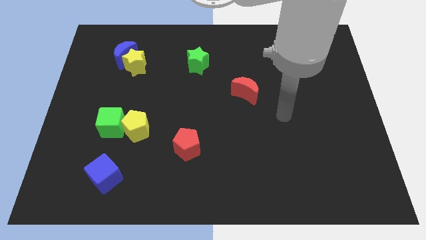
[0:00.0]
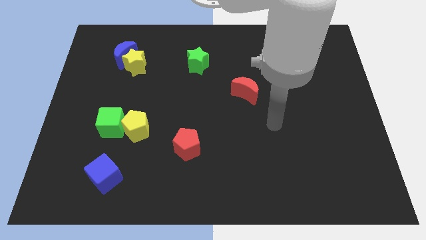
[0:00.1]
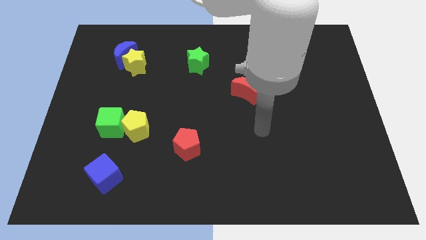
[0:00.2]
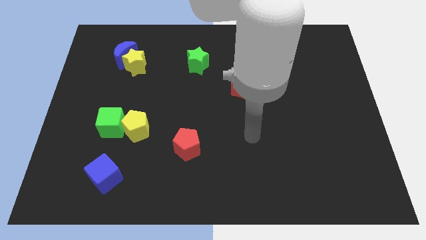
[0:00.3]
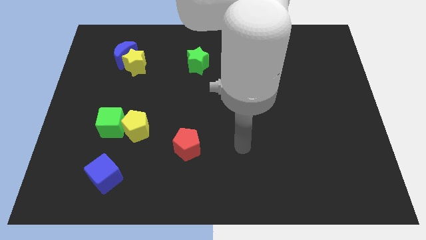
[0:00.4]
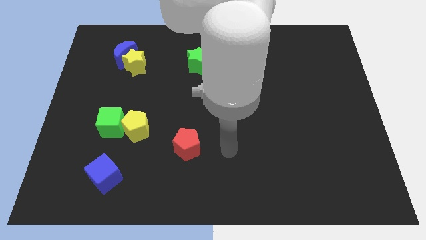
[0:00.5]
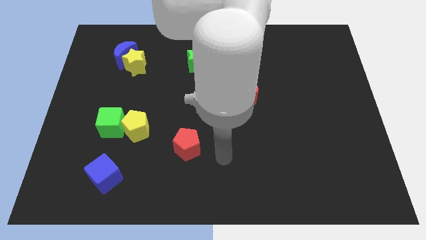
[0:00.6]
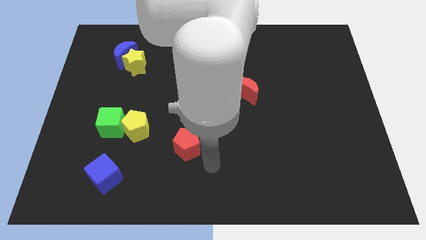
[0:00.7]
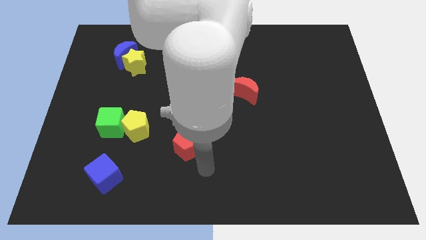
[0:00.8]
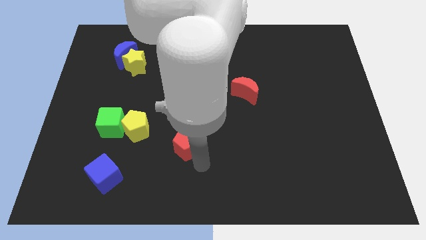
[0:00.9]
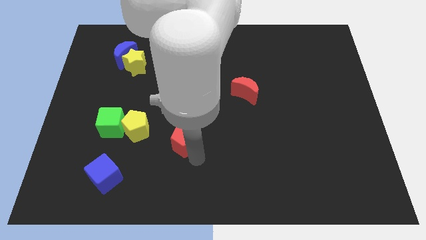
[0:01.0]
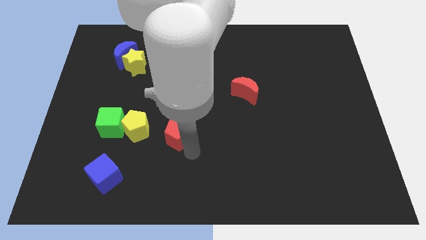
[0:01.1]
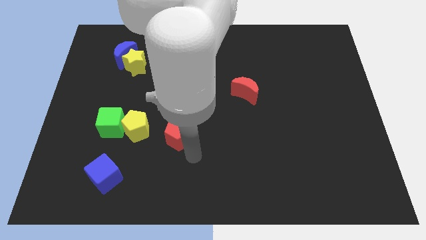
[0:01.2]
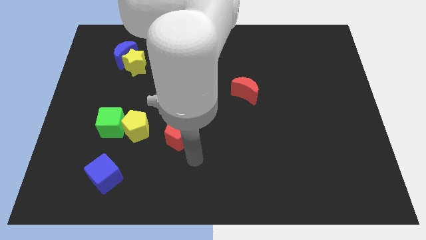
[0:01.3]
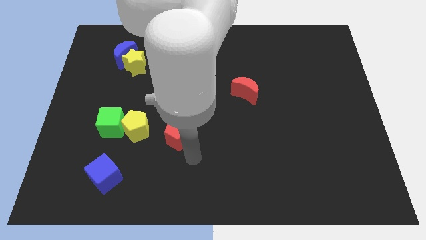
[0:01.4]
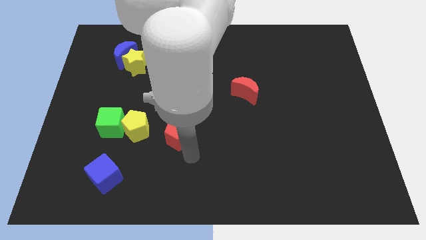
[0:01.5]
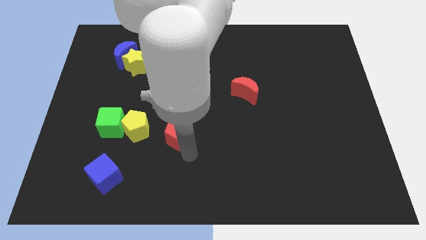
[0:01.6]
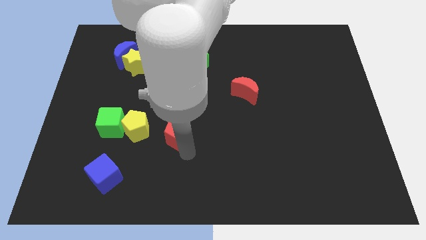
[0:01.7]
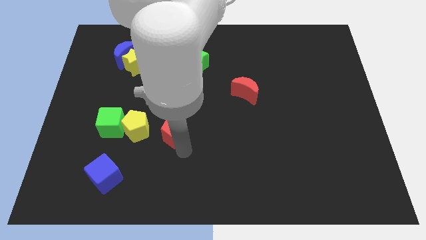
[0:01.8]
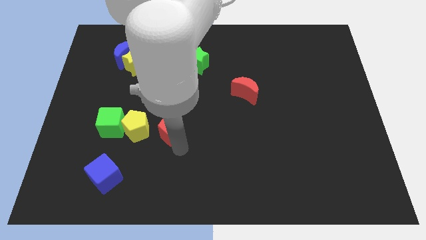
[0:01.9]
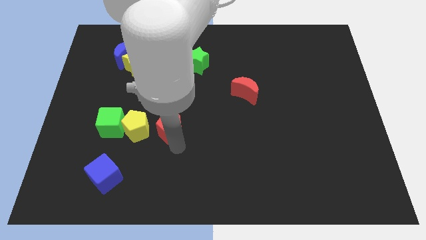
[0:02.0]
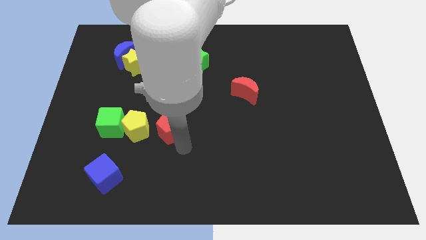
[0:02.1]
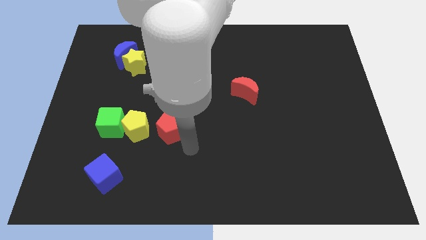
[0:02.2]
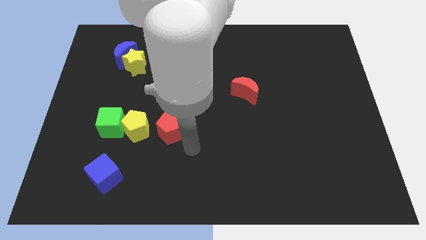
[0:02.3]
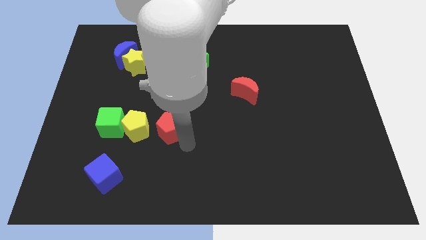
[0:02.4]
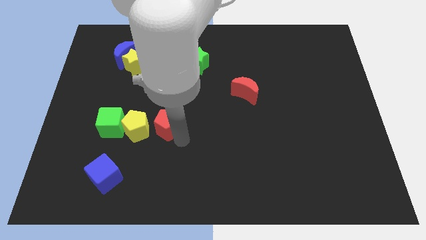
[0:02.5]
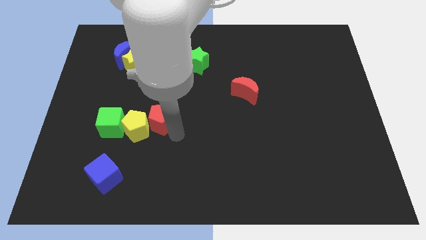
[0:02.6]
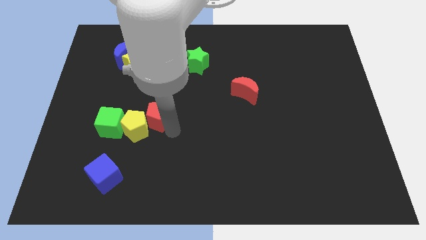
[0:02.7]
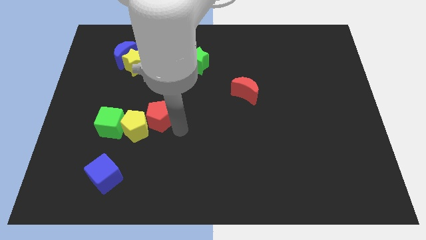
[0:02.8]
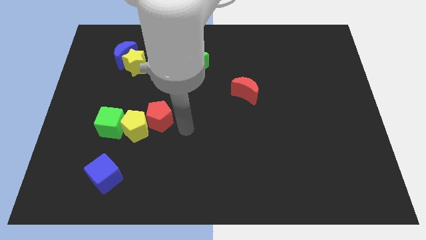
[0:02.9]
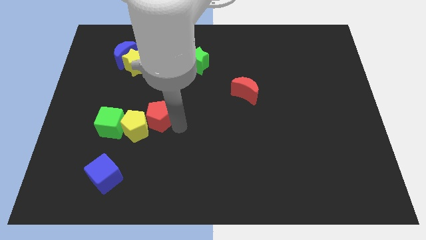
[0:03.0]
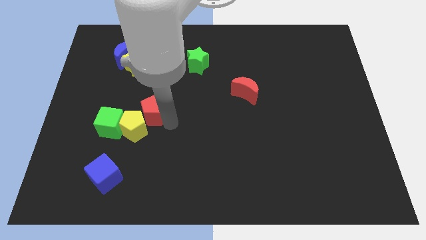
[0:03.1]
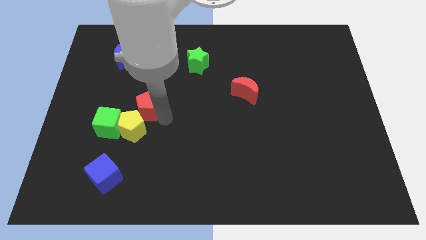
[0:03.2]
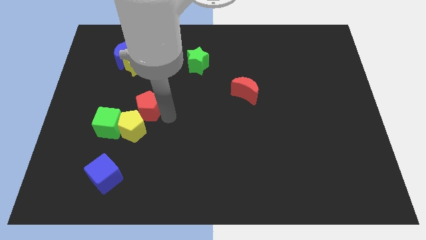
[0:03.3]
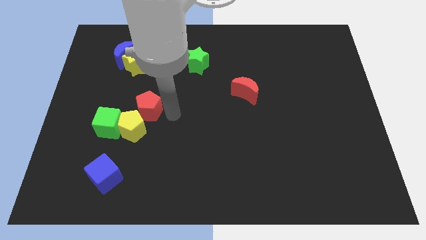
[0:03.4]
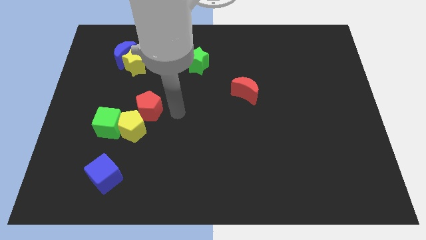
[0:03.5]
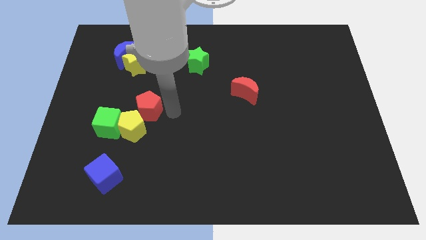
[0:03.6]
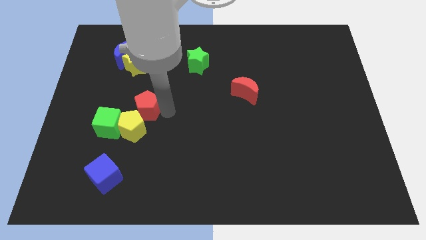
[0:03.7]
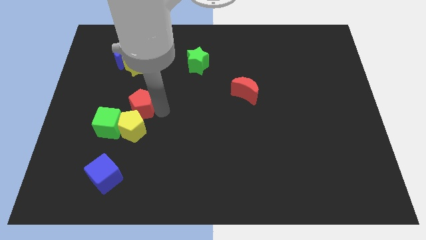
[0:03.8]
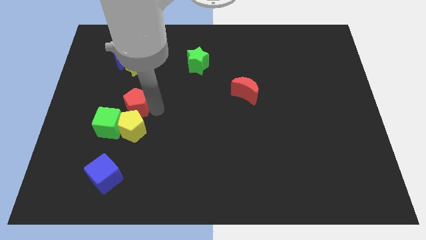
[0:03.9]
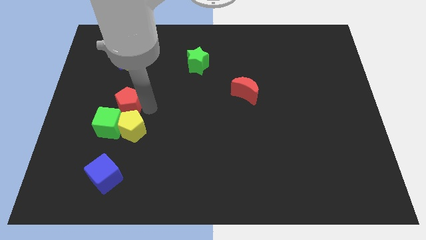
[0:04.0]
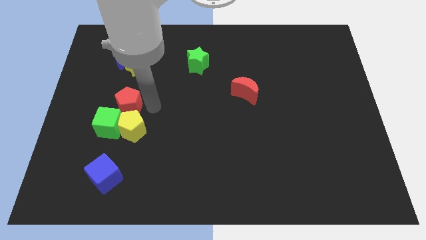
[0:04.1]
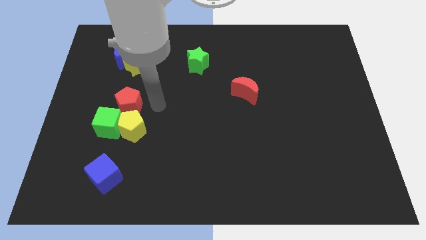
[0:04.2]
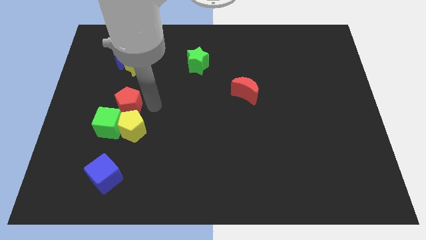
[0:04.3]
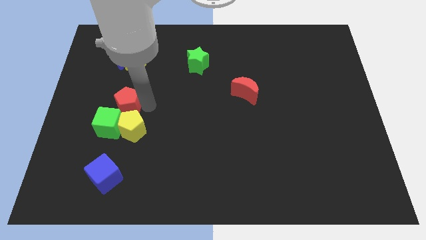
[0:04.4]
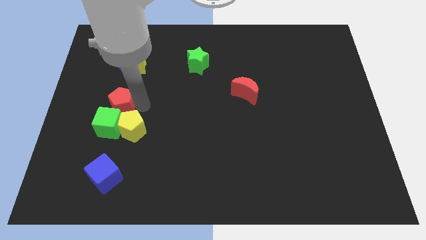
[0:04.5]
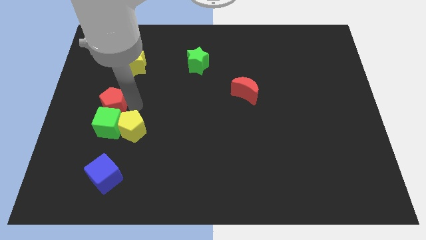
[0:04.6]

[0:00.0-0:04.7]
put the red pentagon diagonally up and to the left of the green cube

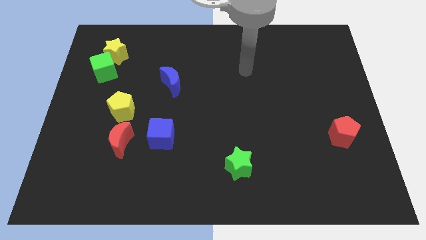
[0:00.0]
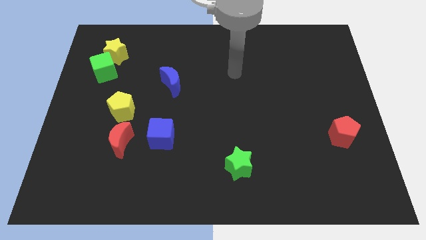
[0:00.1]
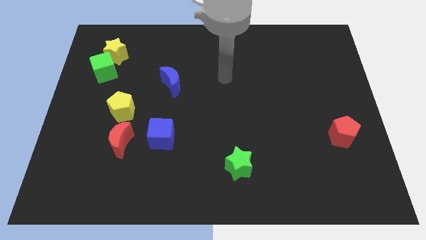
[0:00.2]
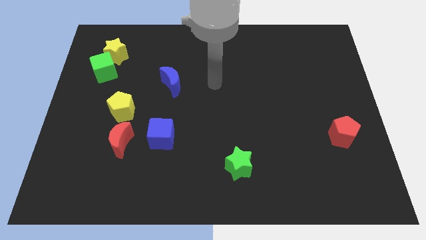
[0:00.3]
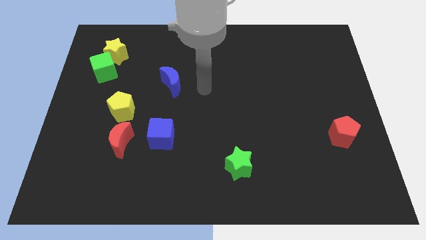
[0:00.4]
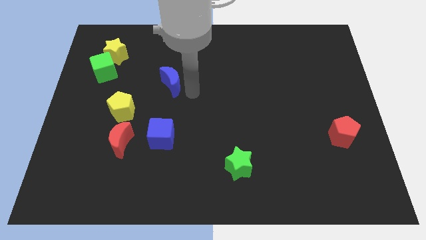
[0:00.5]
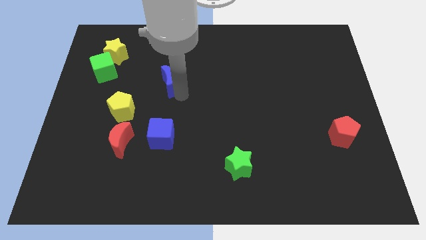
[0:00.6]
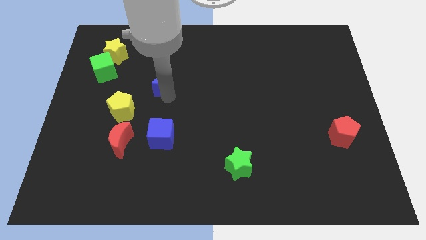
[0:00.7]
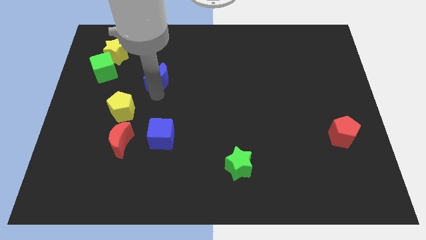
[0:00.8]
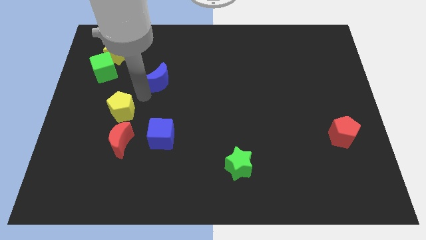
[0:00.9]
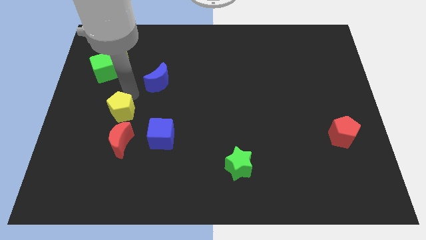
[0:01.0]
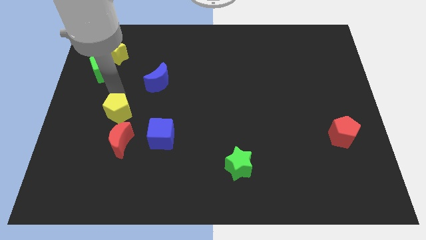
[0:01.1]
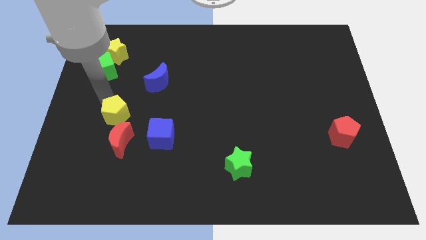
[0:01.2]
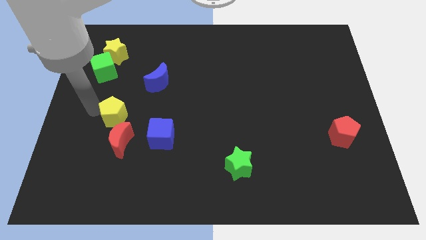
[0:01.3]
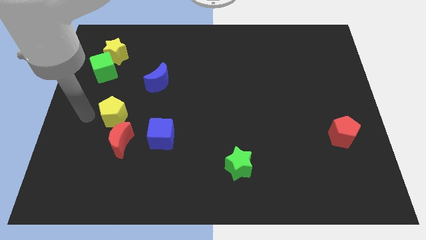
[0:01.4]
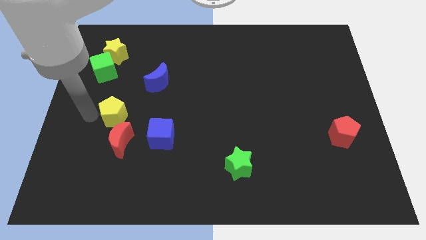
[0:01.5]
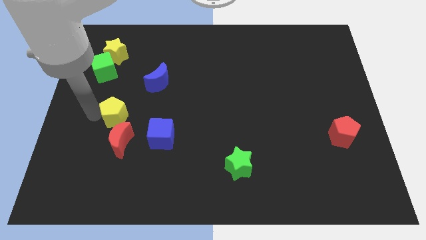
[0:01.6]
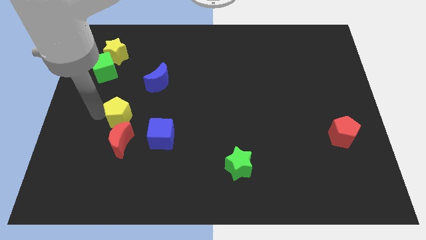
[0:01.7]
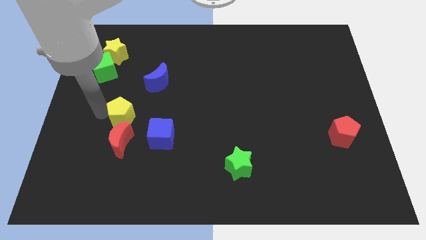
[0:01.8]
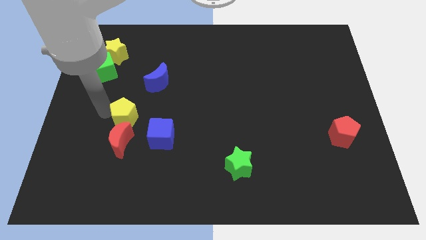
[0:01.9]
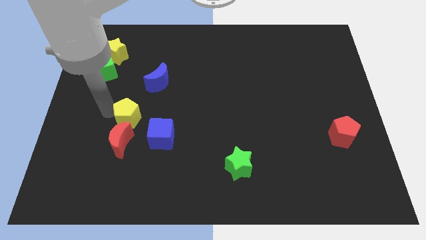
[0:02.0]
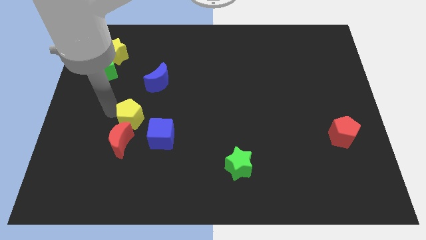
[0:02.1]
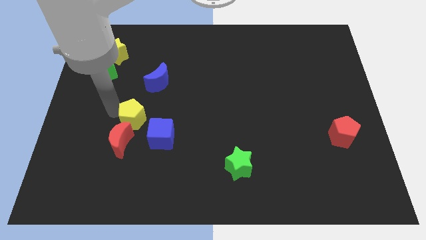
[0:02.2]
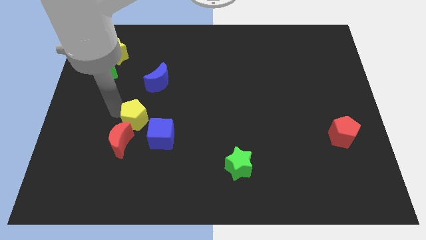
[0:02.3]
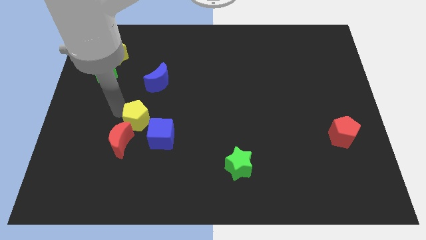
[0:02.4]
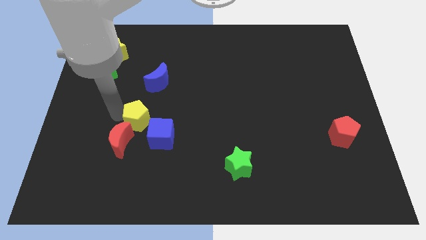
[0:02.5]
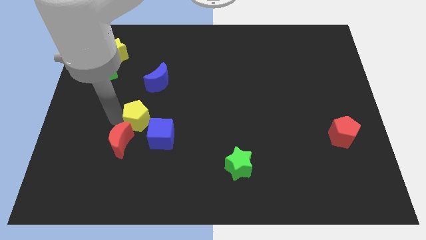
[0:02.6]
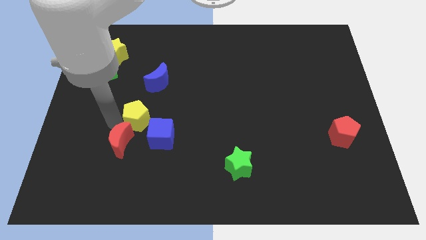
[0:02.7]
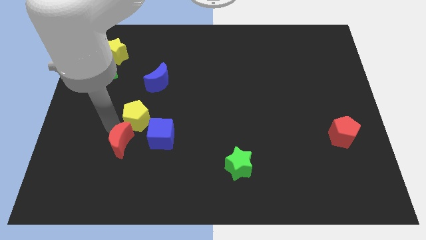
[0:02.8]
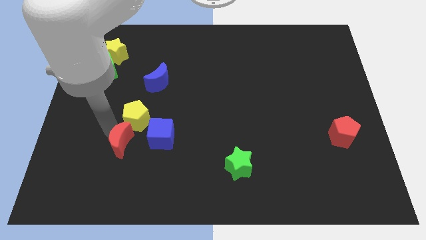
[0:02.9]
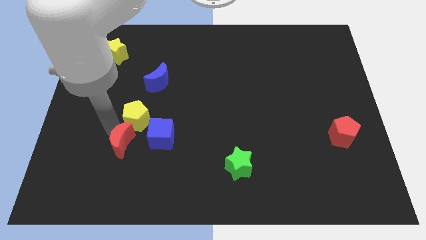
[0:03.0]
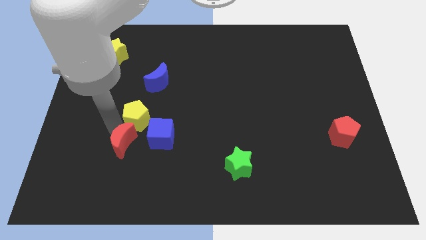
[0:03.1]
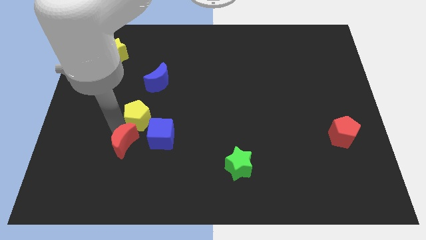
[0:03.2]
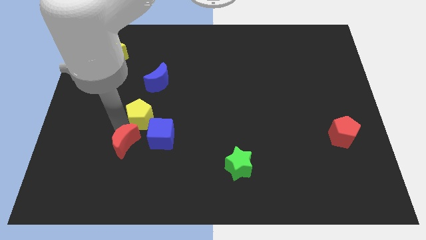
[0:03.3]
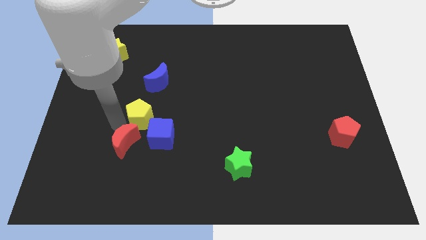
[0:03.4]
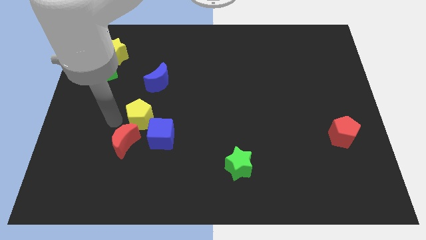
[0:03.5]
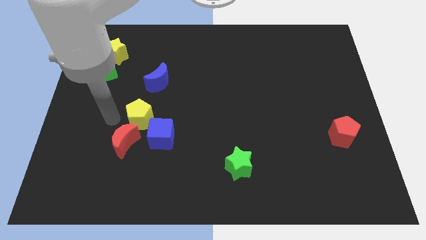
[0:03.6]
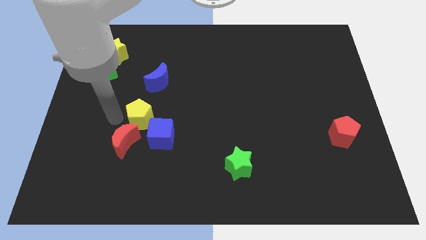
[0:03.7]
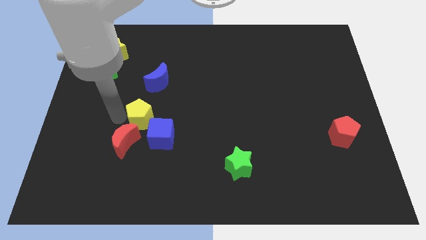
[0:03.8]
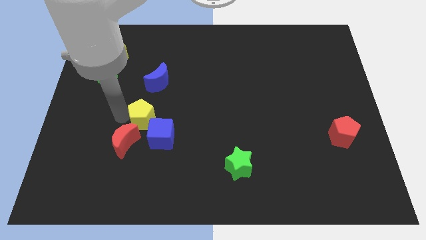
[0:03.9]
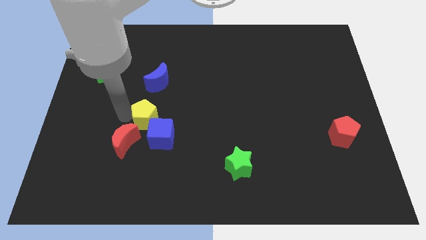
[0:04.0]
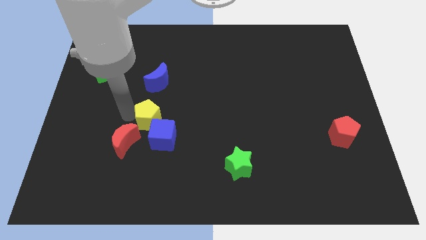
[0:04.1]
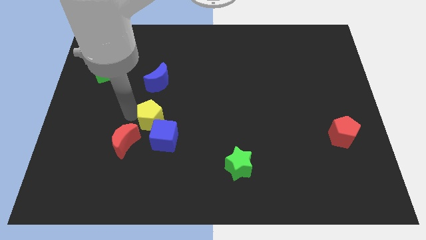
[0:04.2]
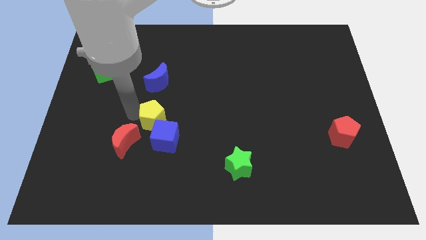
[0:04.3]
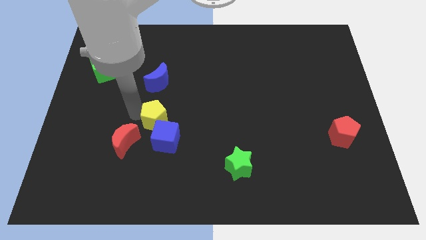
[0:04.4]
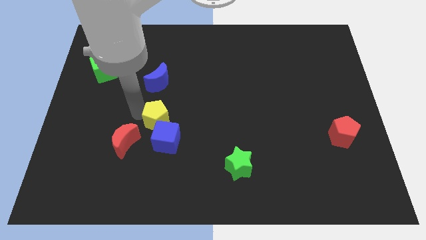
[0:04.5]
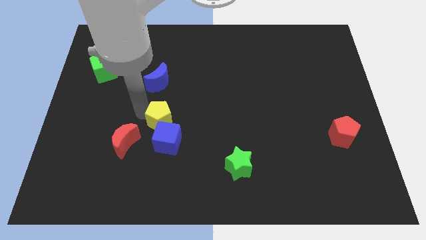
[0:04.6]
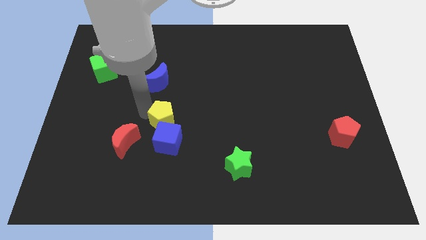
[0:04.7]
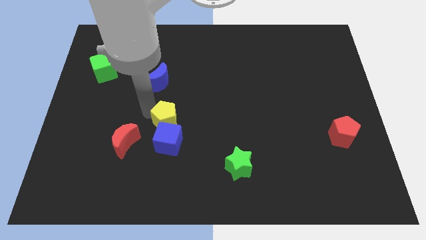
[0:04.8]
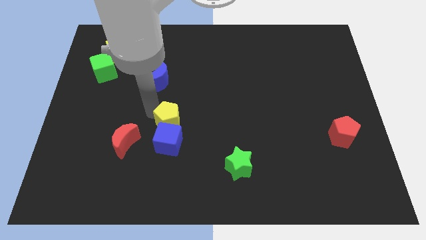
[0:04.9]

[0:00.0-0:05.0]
put the yellow pentagon diagonally up and to the right of the blue cube
